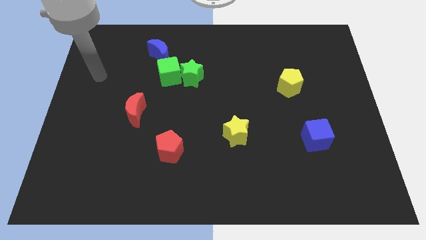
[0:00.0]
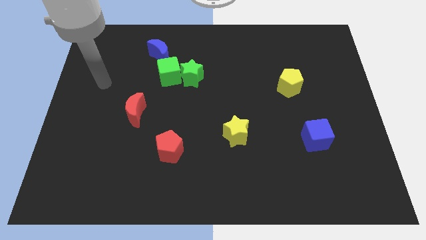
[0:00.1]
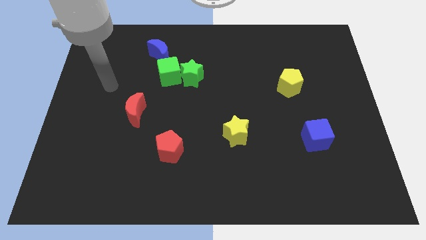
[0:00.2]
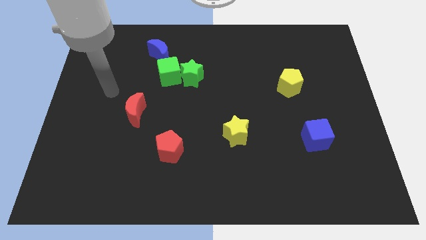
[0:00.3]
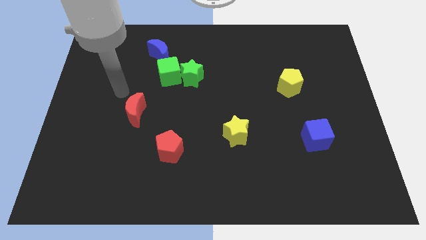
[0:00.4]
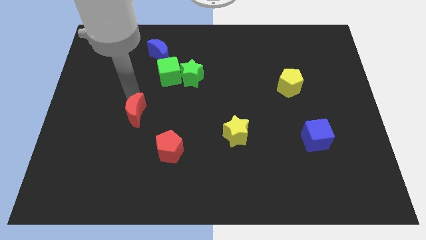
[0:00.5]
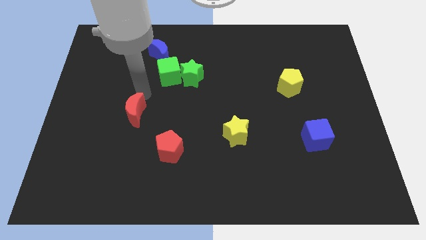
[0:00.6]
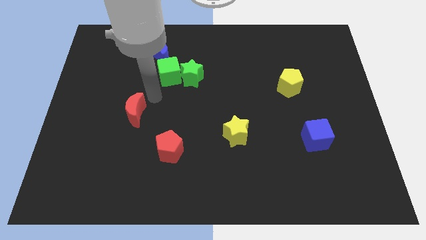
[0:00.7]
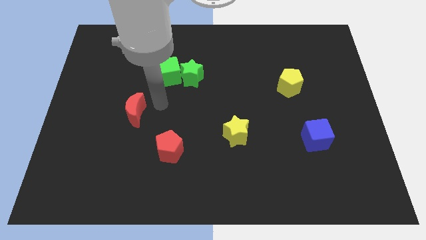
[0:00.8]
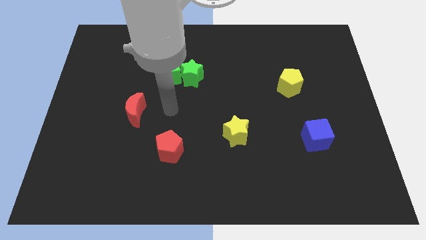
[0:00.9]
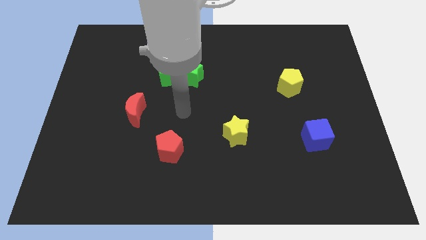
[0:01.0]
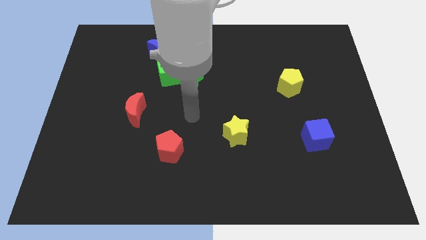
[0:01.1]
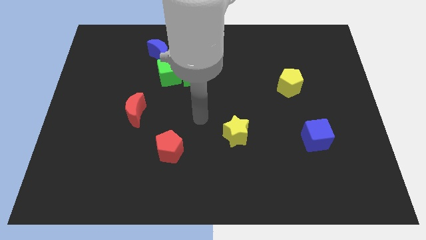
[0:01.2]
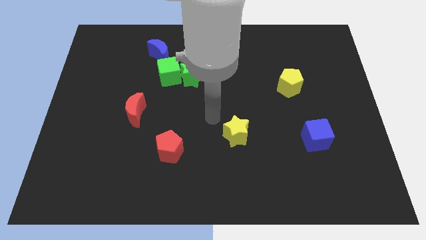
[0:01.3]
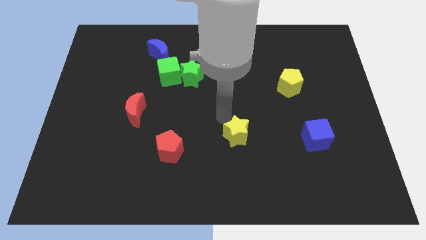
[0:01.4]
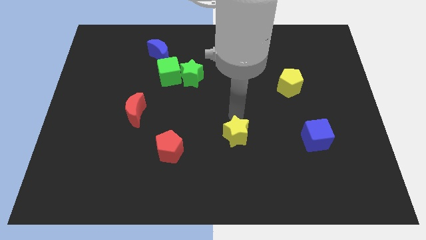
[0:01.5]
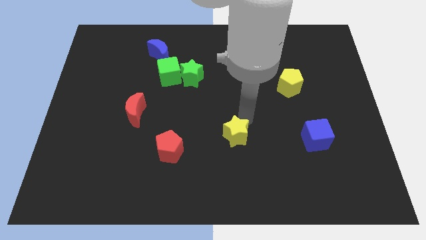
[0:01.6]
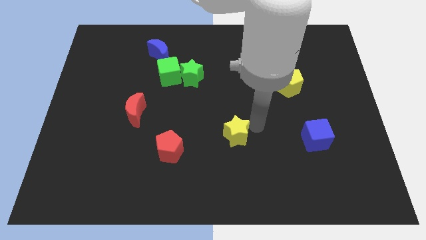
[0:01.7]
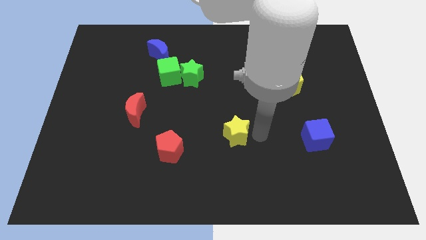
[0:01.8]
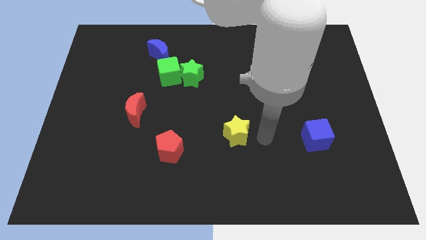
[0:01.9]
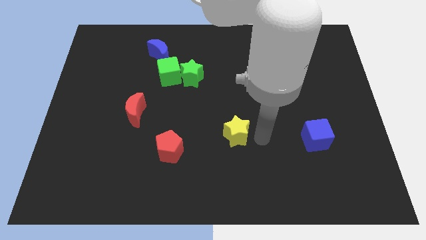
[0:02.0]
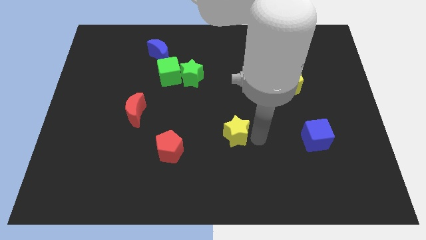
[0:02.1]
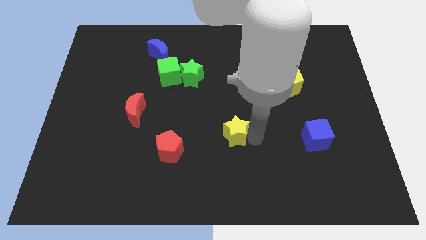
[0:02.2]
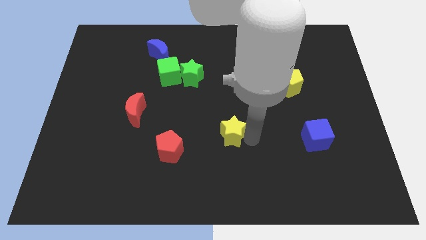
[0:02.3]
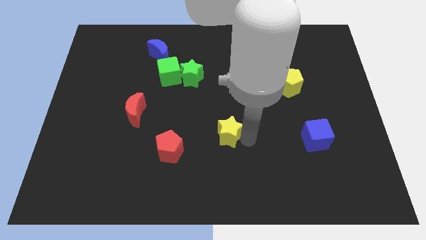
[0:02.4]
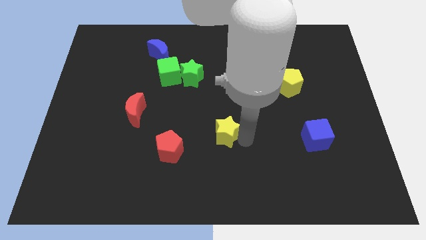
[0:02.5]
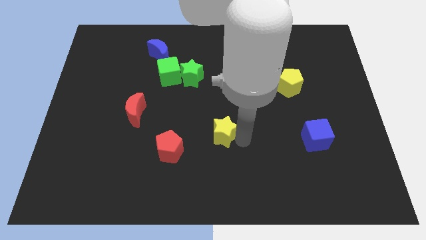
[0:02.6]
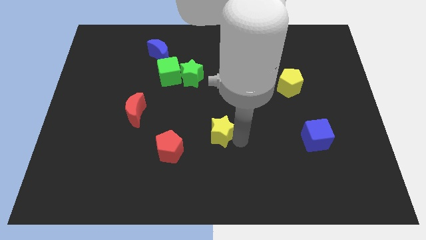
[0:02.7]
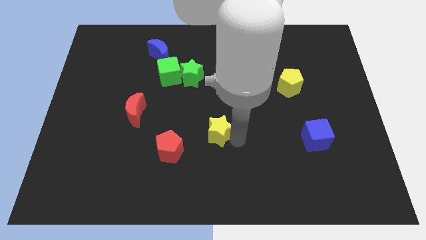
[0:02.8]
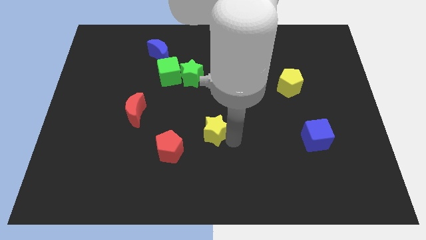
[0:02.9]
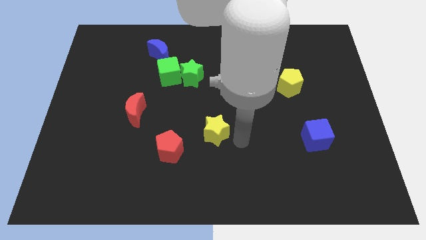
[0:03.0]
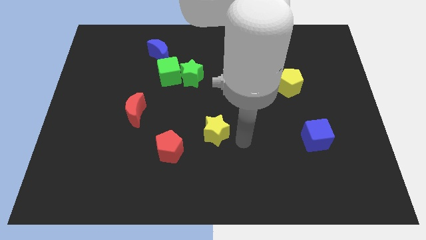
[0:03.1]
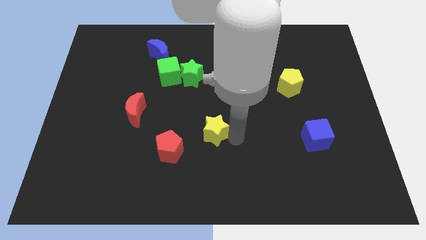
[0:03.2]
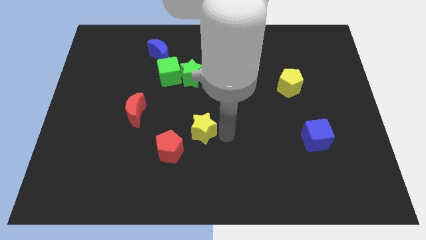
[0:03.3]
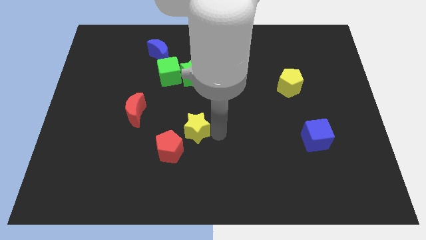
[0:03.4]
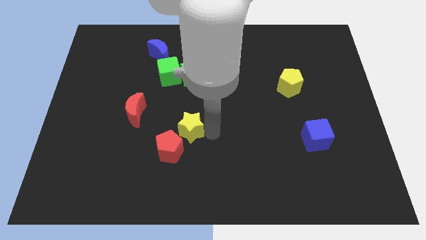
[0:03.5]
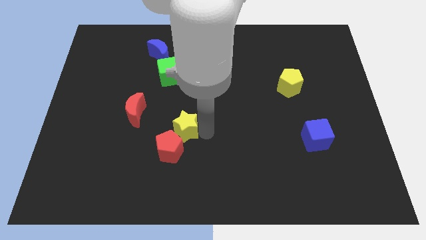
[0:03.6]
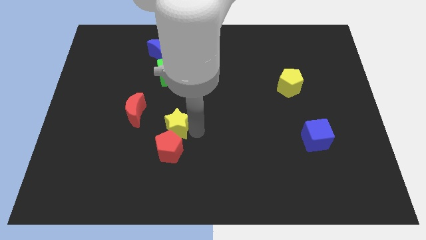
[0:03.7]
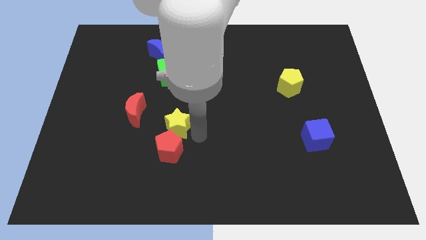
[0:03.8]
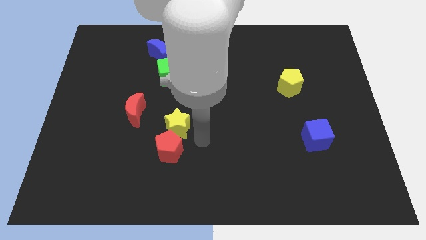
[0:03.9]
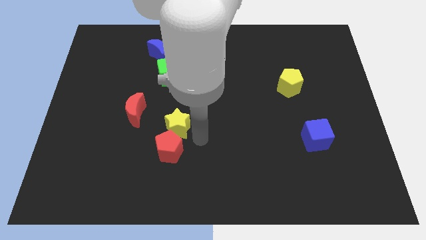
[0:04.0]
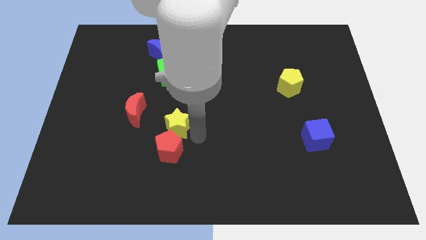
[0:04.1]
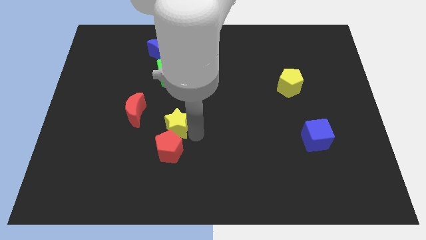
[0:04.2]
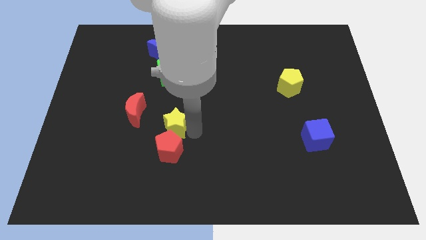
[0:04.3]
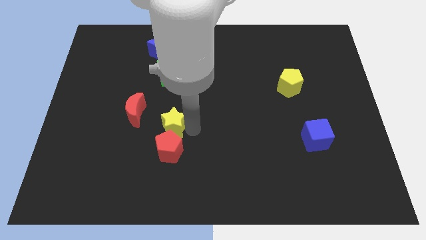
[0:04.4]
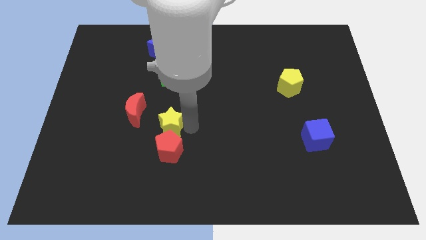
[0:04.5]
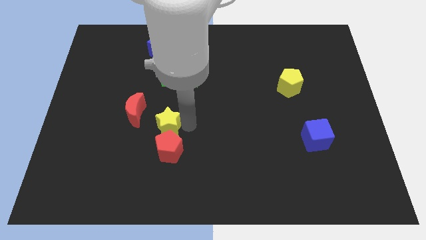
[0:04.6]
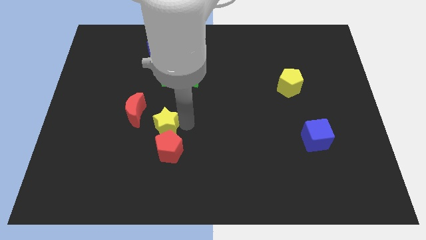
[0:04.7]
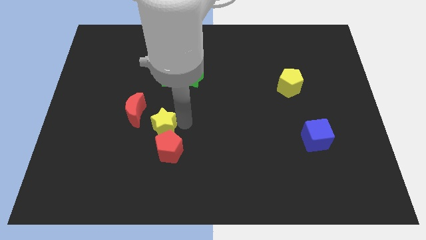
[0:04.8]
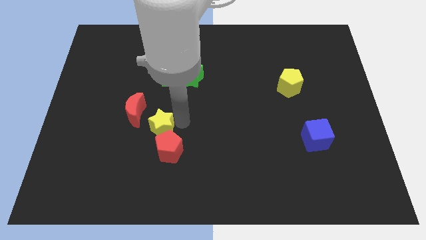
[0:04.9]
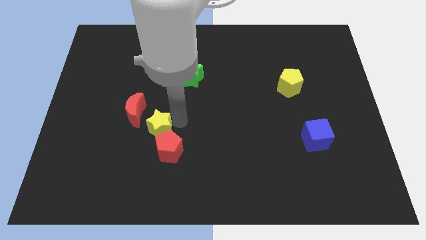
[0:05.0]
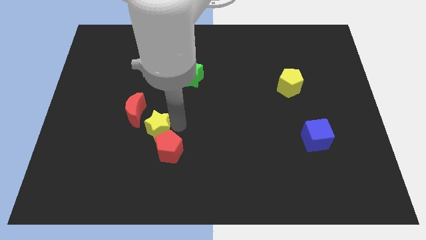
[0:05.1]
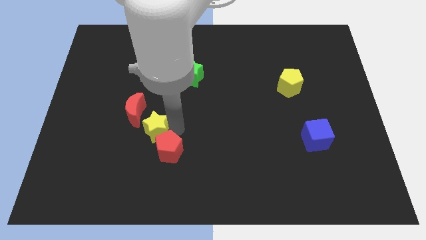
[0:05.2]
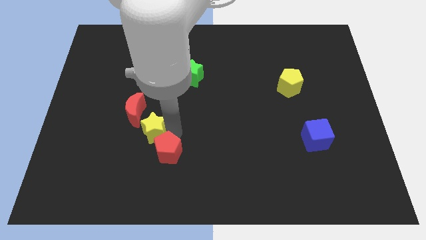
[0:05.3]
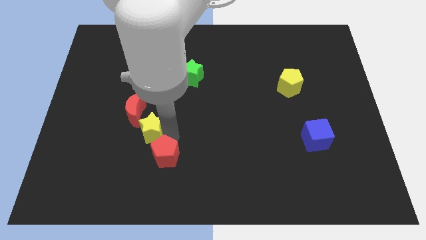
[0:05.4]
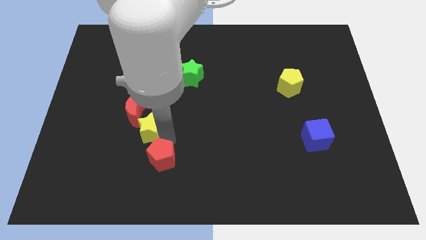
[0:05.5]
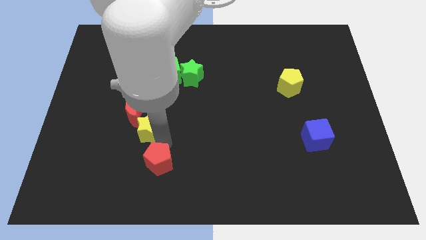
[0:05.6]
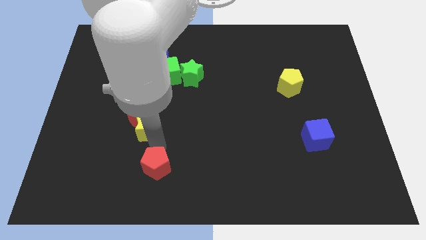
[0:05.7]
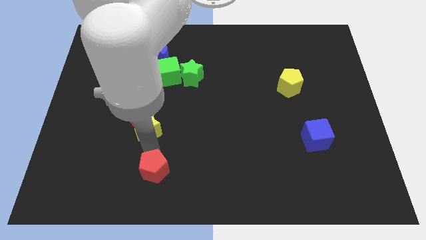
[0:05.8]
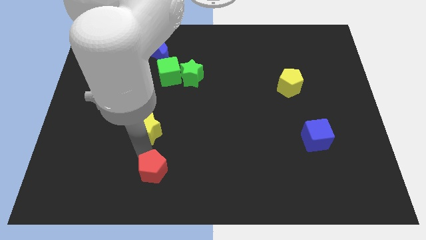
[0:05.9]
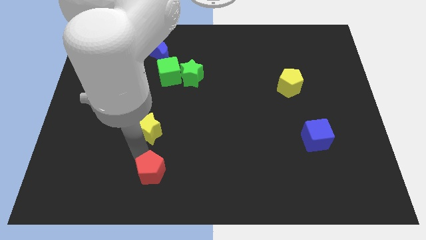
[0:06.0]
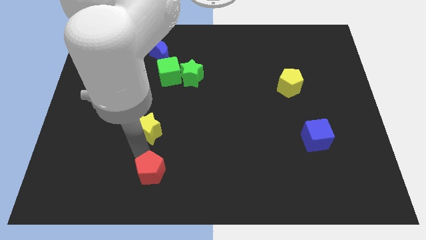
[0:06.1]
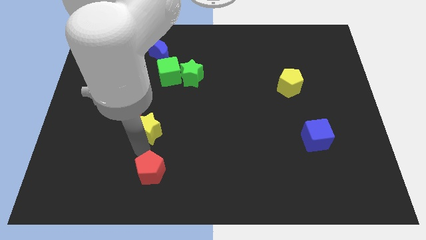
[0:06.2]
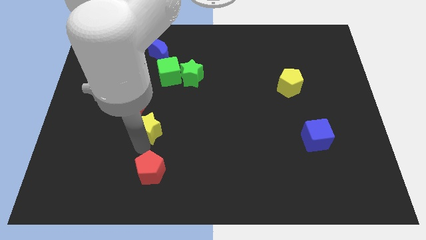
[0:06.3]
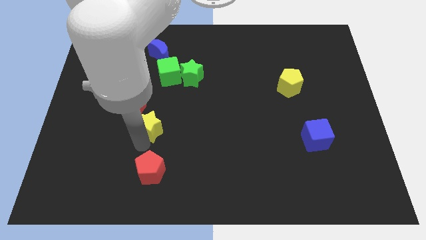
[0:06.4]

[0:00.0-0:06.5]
move the yellow star towards the red moon

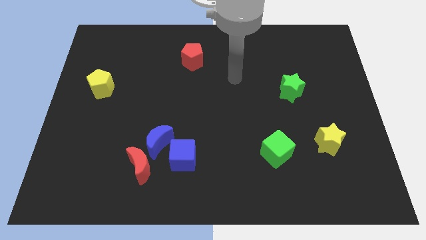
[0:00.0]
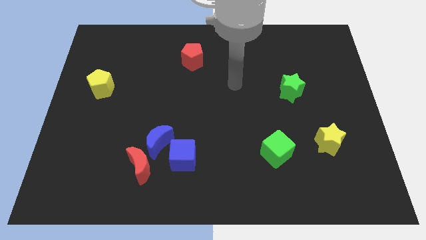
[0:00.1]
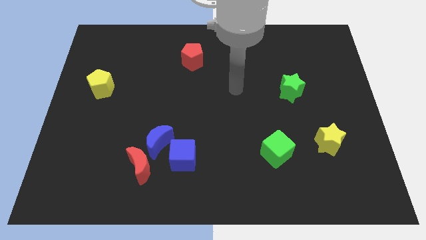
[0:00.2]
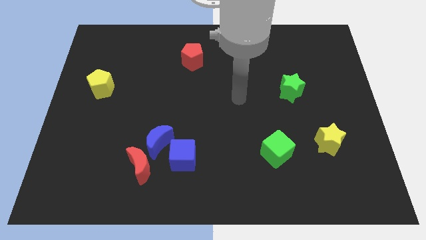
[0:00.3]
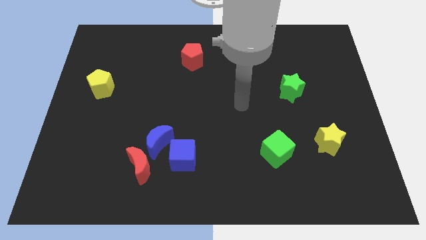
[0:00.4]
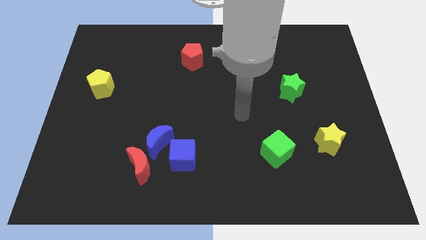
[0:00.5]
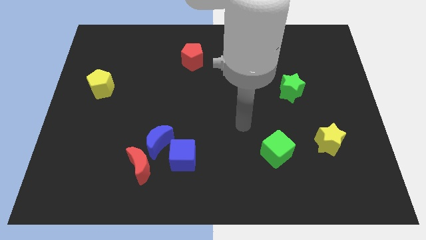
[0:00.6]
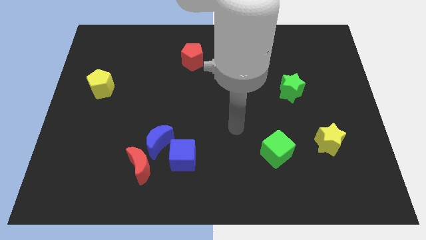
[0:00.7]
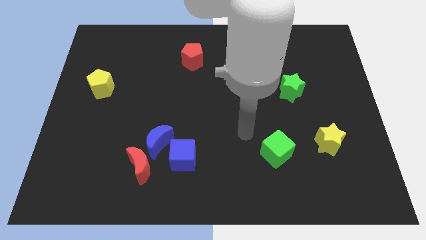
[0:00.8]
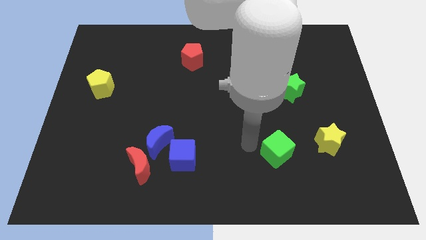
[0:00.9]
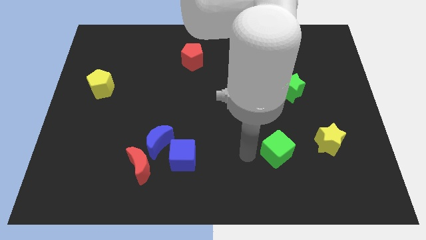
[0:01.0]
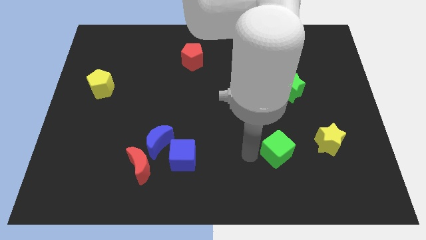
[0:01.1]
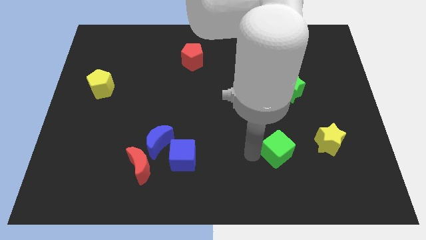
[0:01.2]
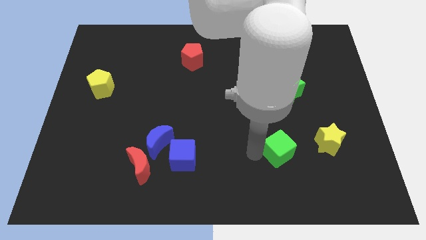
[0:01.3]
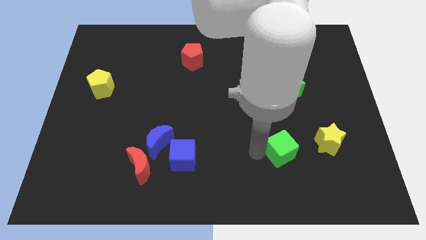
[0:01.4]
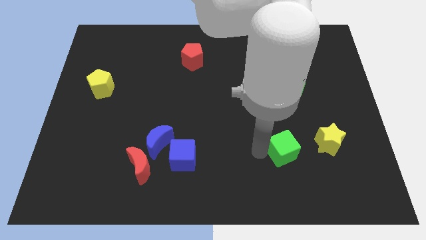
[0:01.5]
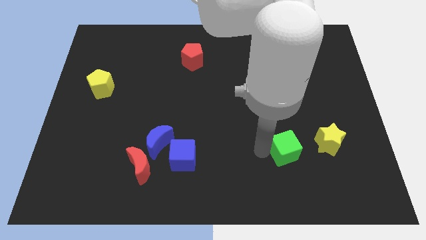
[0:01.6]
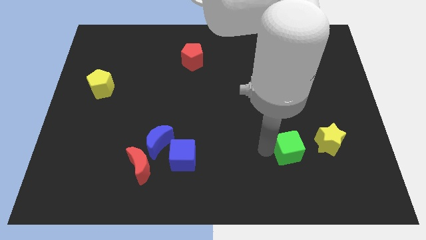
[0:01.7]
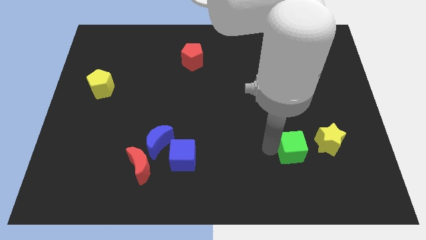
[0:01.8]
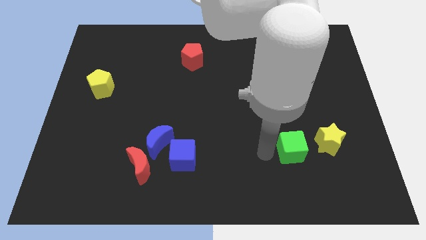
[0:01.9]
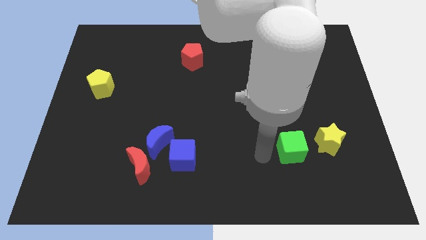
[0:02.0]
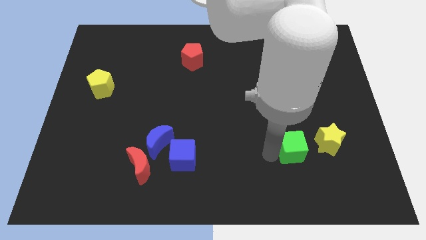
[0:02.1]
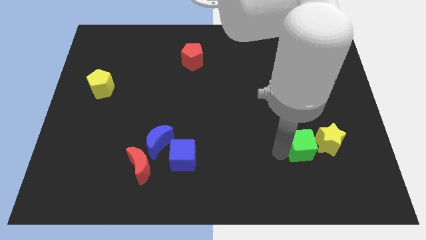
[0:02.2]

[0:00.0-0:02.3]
put the green cube next to the yellow star
